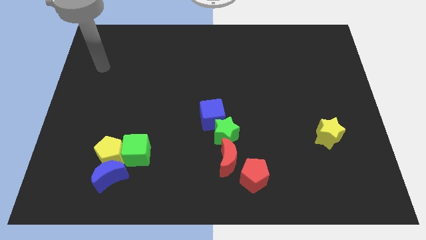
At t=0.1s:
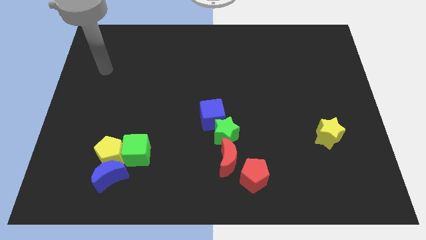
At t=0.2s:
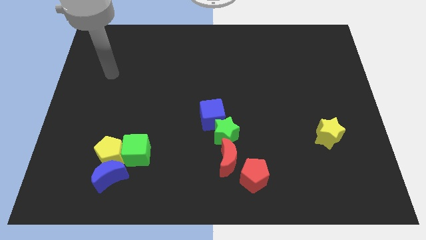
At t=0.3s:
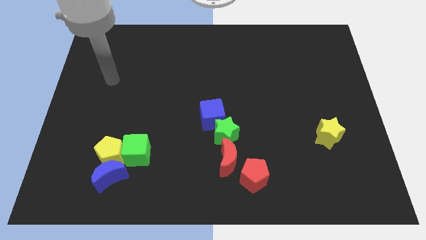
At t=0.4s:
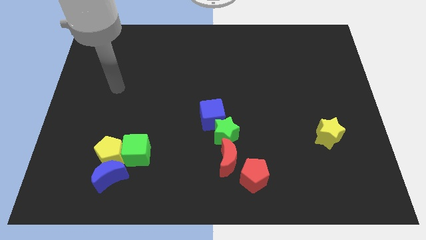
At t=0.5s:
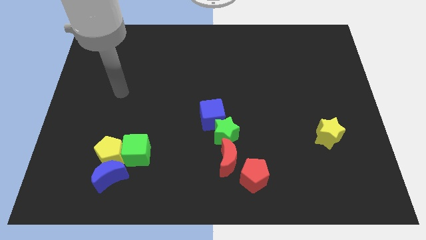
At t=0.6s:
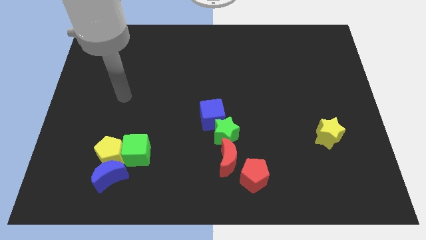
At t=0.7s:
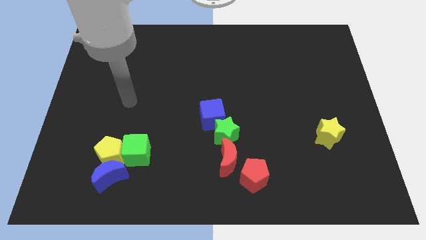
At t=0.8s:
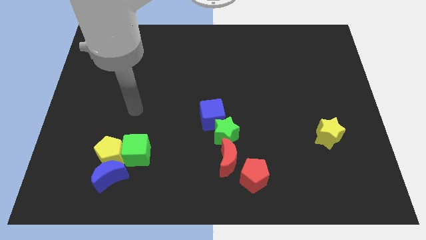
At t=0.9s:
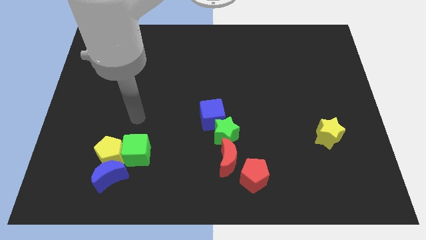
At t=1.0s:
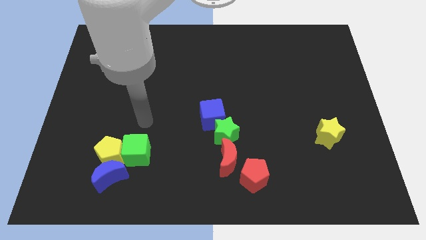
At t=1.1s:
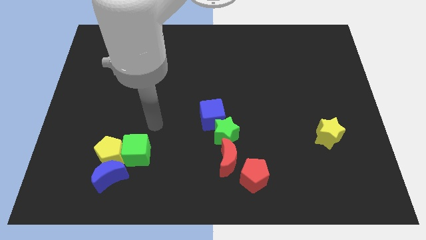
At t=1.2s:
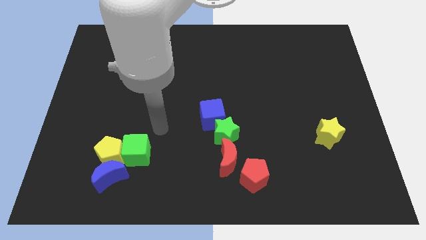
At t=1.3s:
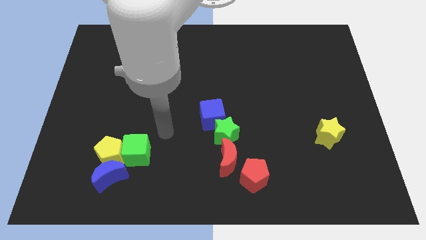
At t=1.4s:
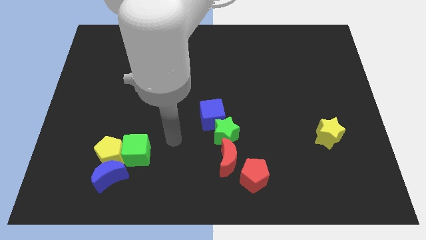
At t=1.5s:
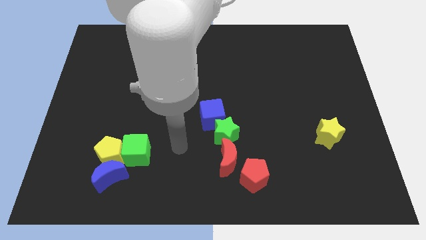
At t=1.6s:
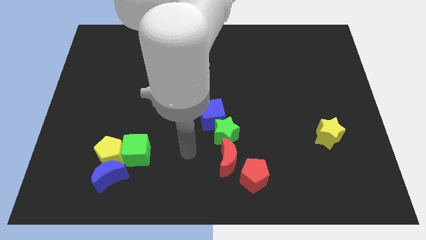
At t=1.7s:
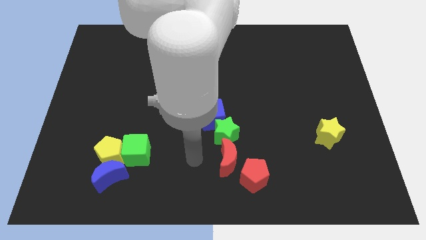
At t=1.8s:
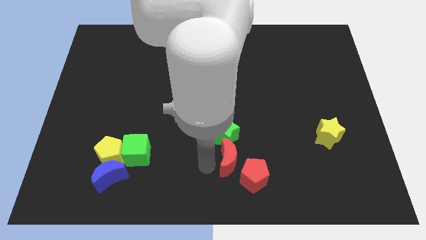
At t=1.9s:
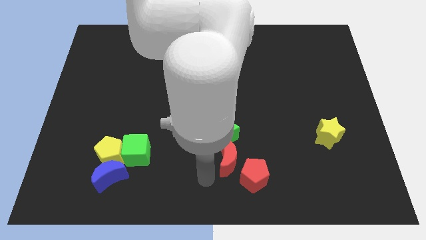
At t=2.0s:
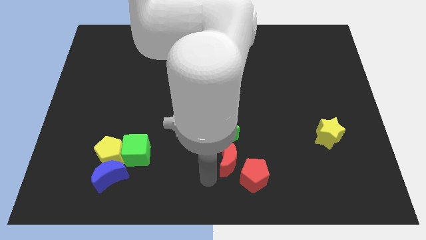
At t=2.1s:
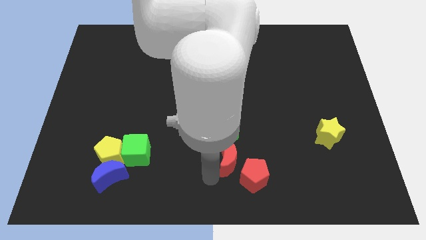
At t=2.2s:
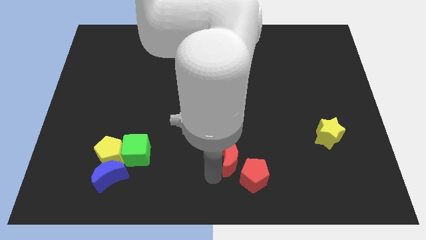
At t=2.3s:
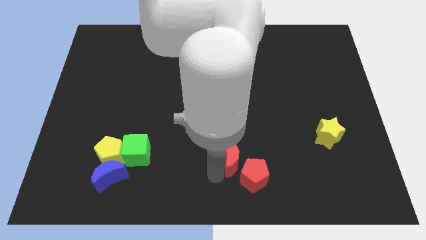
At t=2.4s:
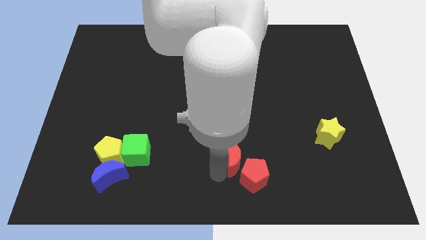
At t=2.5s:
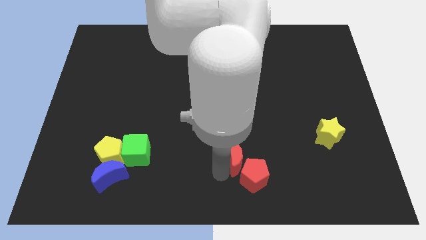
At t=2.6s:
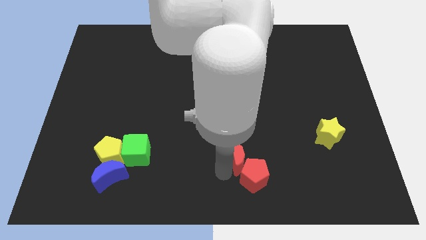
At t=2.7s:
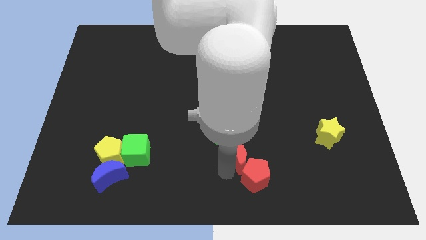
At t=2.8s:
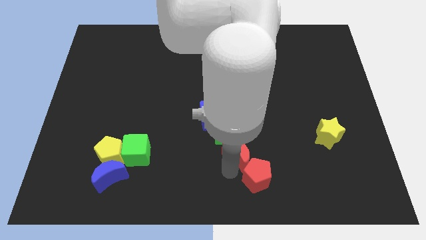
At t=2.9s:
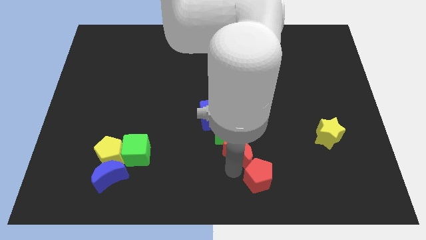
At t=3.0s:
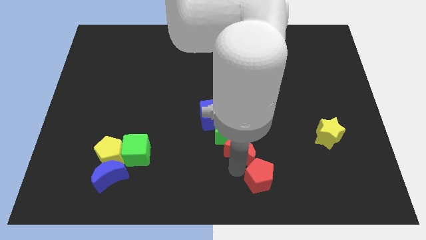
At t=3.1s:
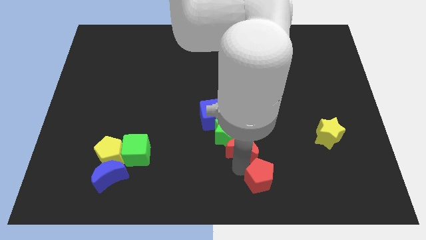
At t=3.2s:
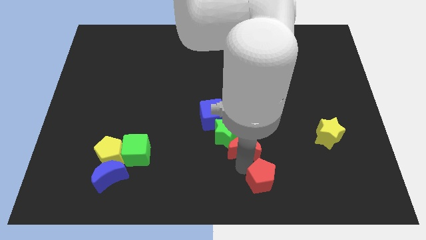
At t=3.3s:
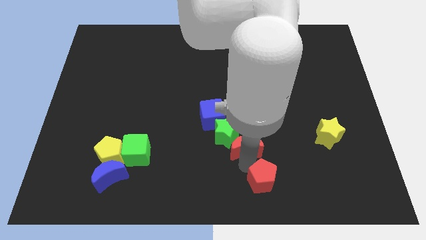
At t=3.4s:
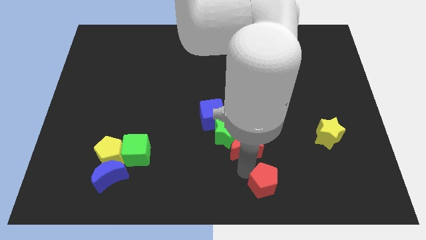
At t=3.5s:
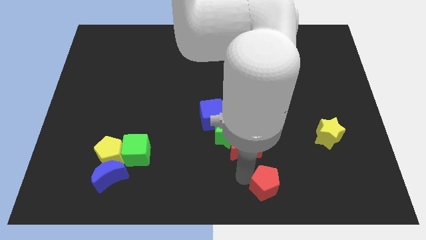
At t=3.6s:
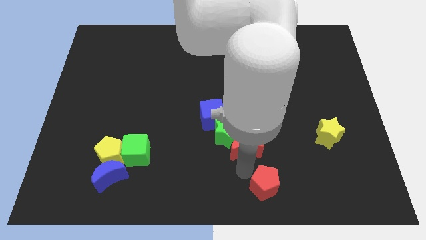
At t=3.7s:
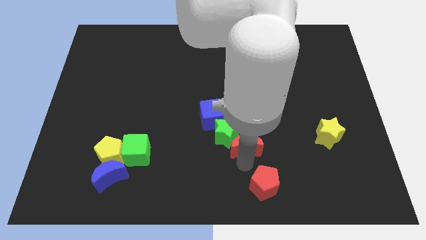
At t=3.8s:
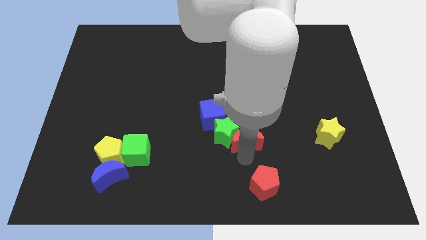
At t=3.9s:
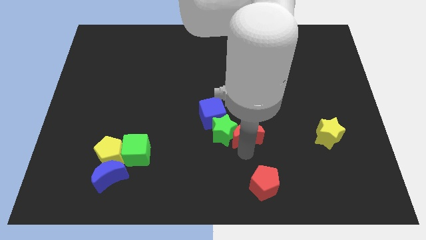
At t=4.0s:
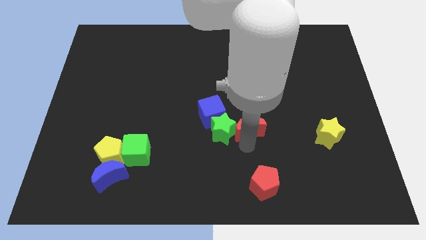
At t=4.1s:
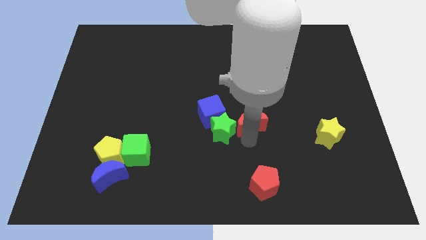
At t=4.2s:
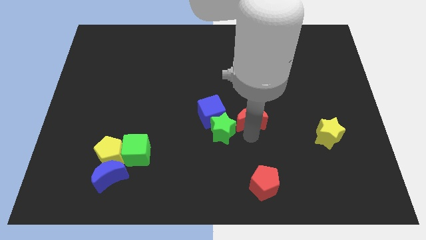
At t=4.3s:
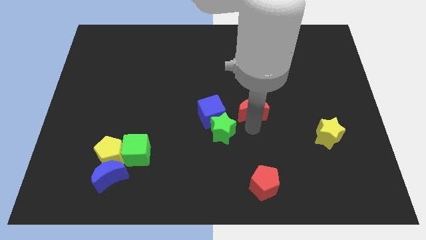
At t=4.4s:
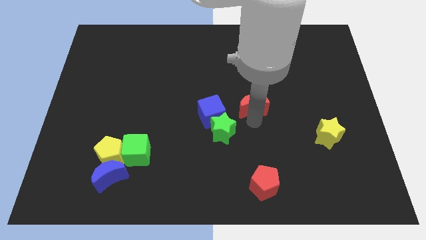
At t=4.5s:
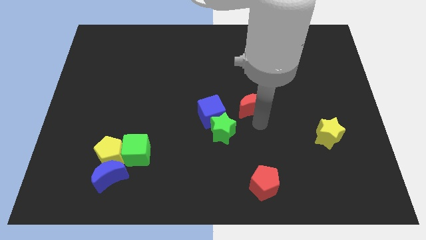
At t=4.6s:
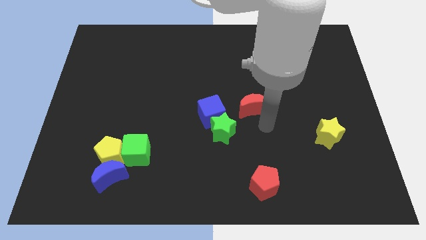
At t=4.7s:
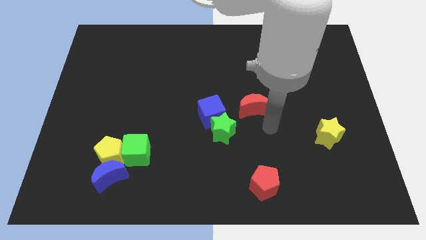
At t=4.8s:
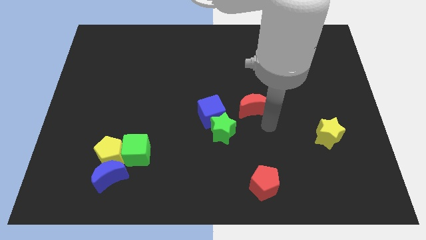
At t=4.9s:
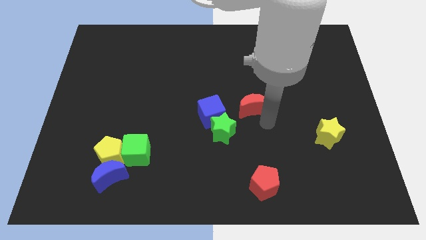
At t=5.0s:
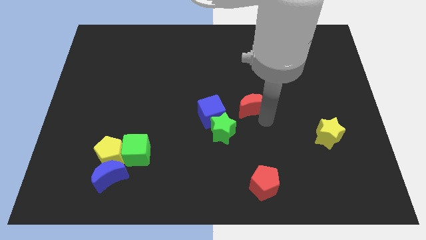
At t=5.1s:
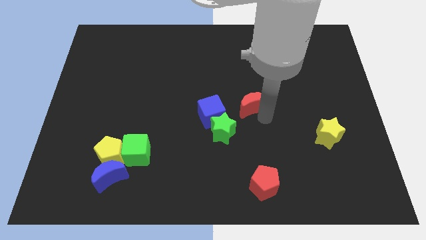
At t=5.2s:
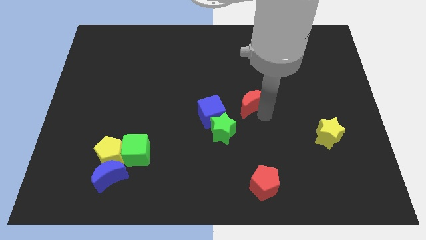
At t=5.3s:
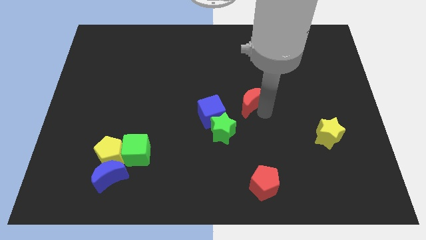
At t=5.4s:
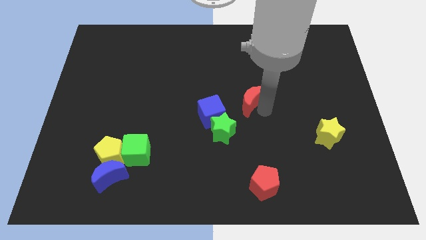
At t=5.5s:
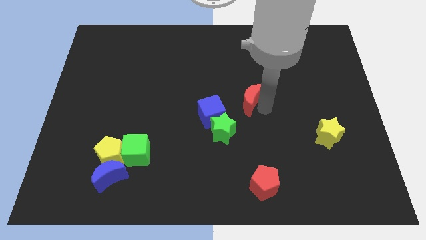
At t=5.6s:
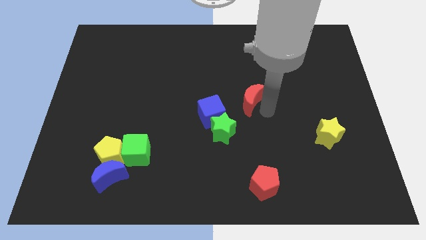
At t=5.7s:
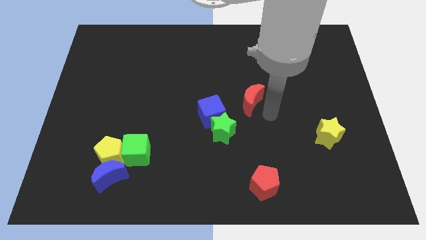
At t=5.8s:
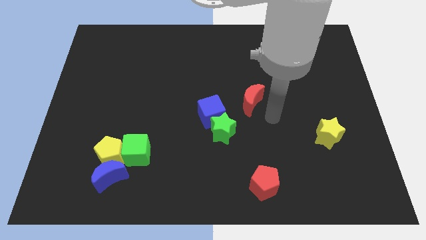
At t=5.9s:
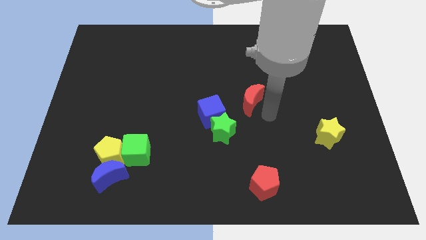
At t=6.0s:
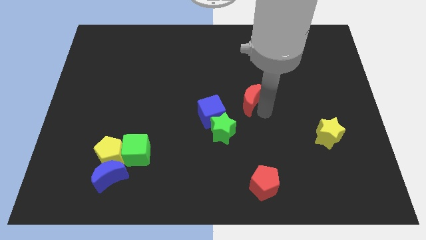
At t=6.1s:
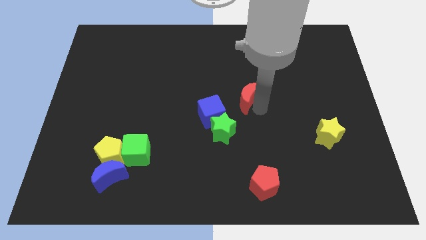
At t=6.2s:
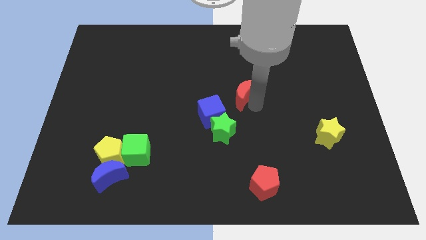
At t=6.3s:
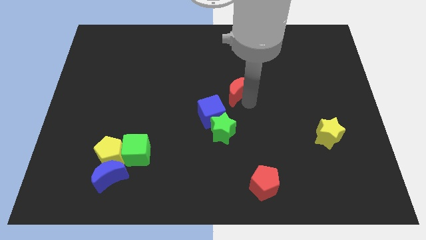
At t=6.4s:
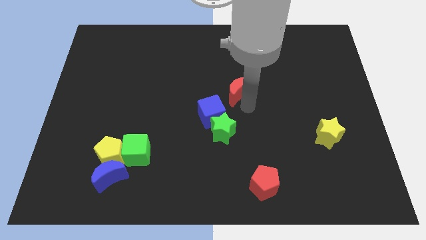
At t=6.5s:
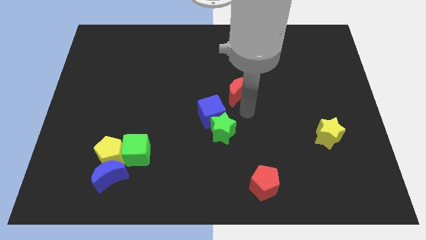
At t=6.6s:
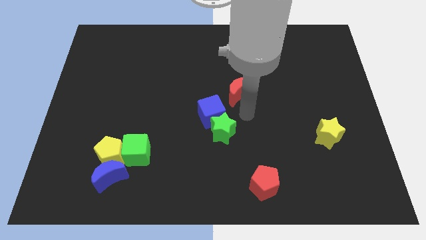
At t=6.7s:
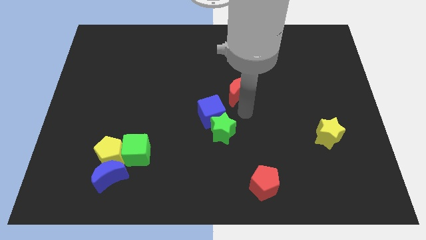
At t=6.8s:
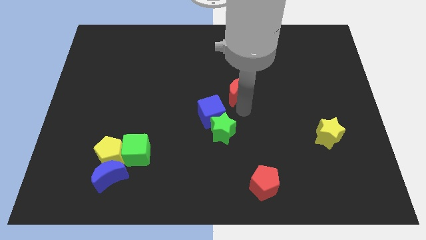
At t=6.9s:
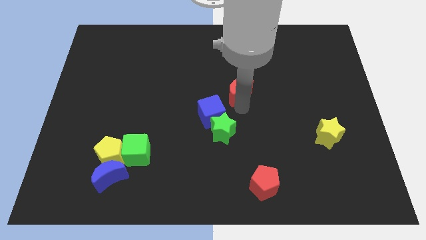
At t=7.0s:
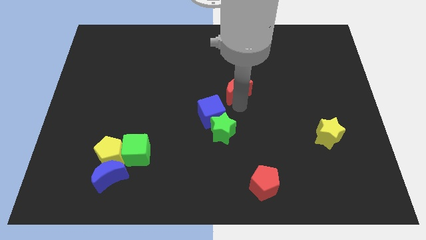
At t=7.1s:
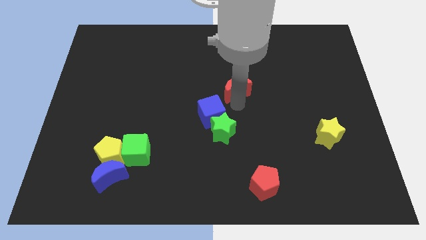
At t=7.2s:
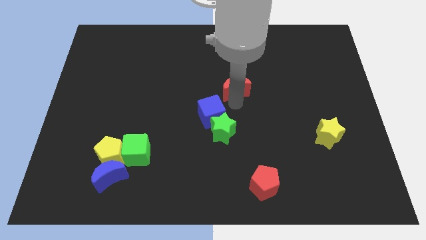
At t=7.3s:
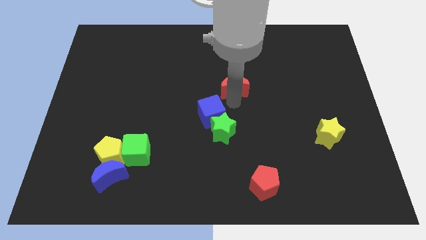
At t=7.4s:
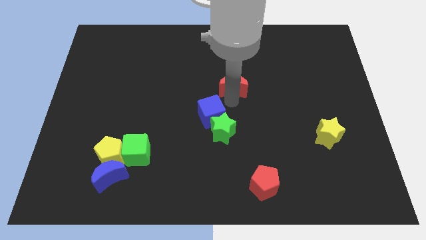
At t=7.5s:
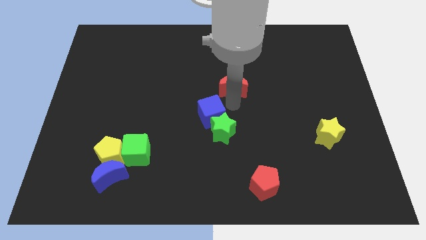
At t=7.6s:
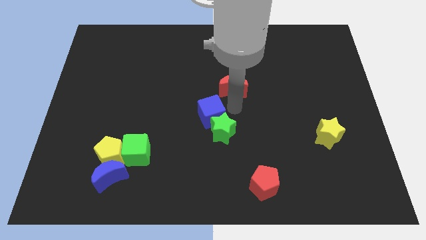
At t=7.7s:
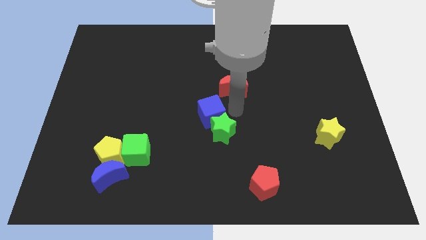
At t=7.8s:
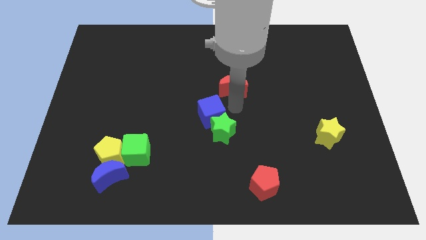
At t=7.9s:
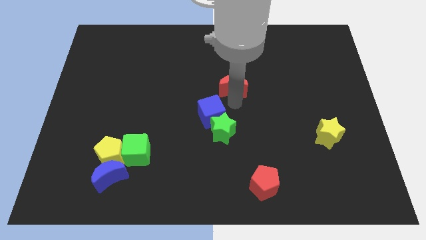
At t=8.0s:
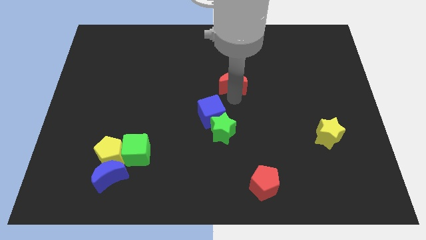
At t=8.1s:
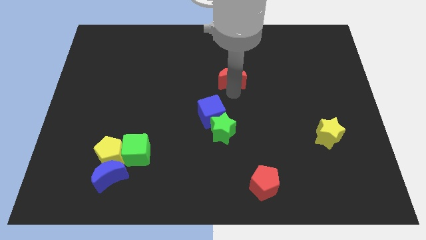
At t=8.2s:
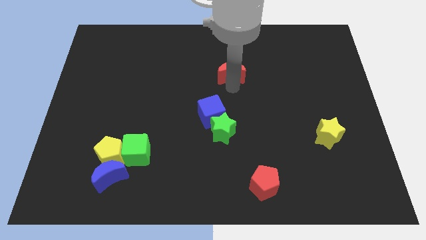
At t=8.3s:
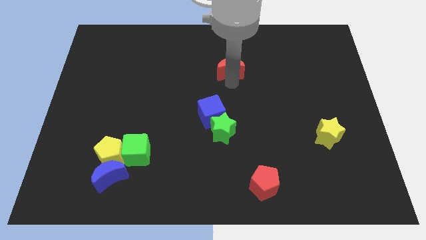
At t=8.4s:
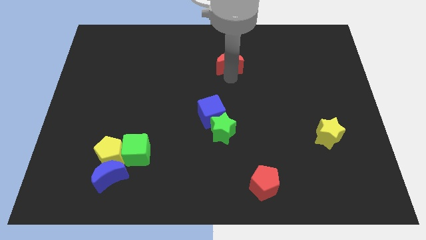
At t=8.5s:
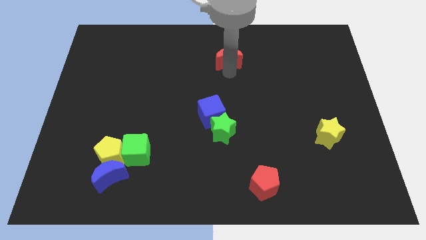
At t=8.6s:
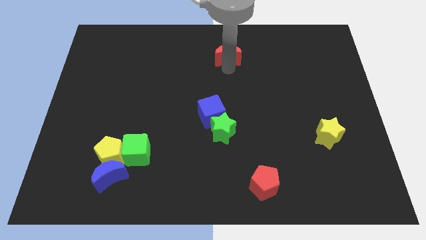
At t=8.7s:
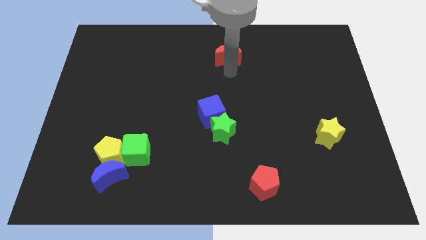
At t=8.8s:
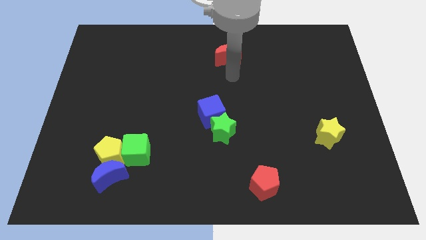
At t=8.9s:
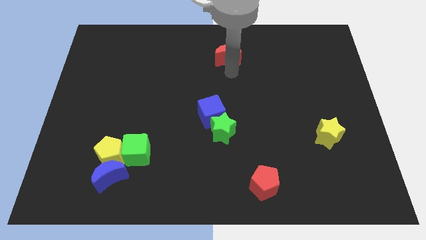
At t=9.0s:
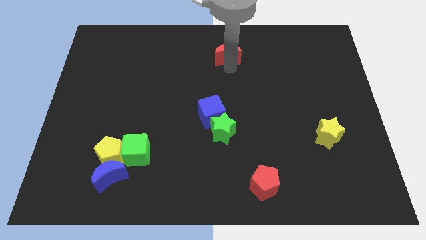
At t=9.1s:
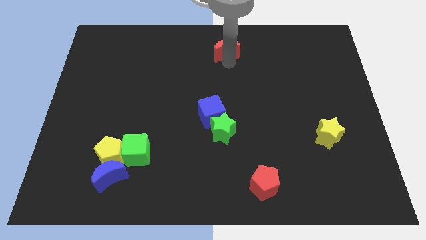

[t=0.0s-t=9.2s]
slide the red moon to the top side
